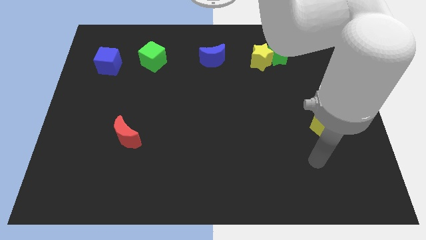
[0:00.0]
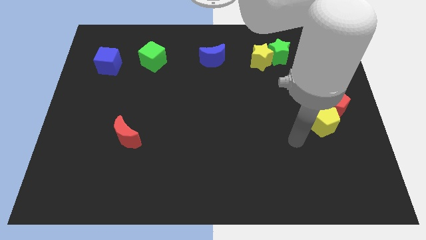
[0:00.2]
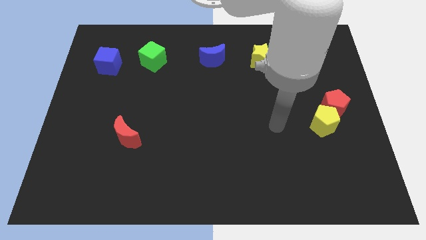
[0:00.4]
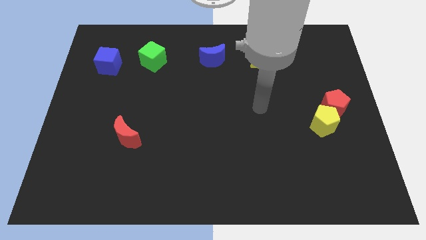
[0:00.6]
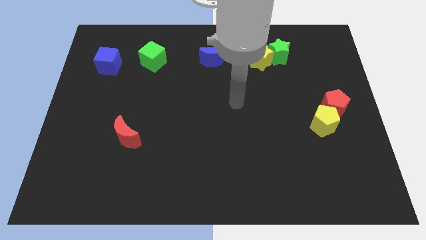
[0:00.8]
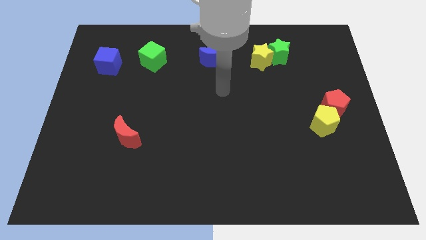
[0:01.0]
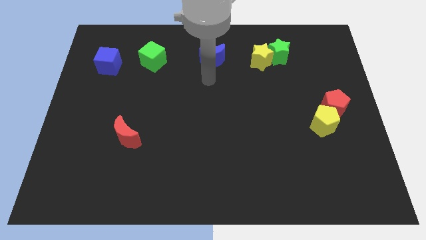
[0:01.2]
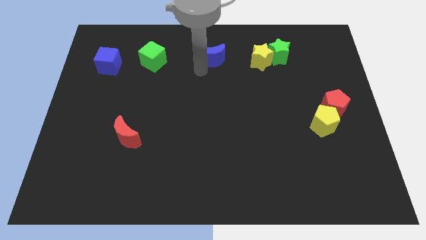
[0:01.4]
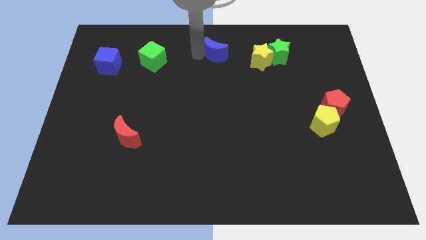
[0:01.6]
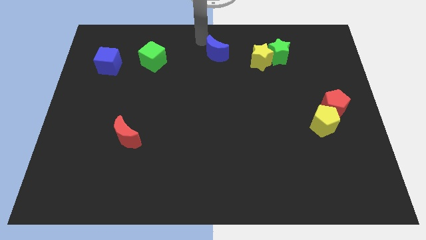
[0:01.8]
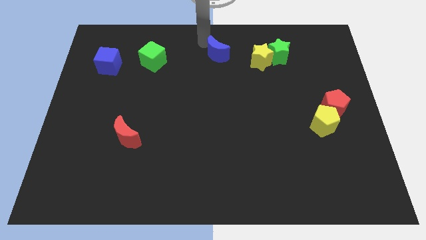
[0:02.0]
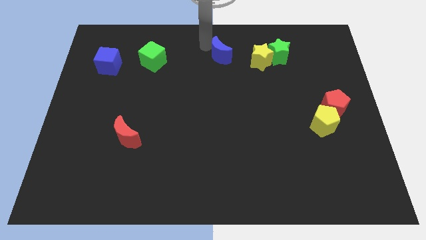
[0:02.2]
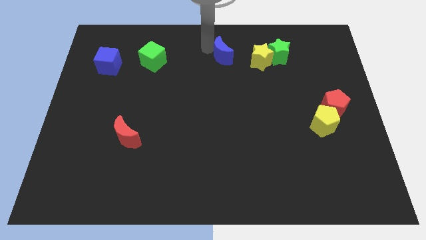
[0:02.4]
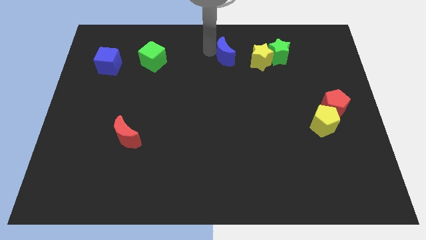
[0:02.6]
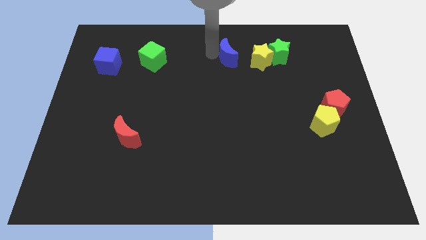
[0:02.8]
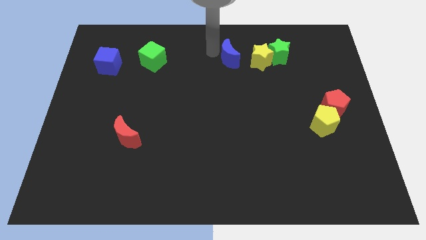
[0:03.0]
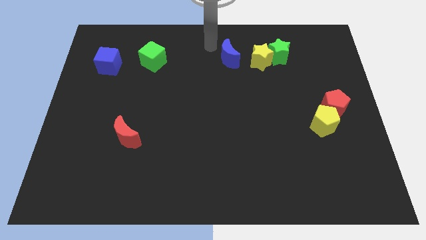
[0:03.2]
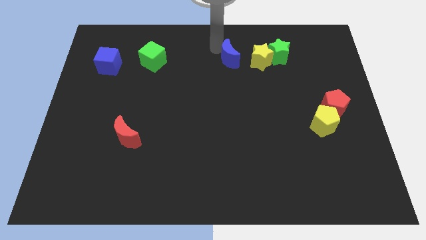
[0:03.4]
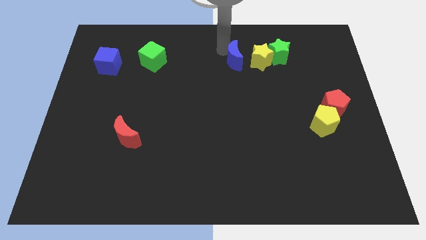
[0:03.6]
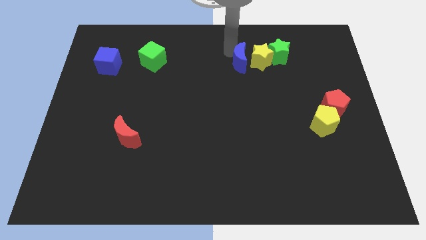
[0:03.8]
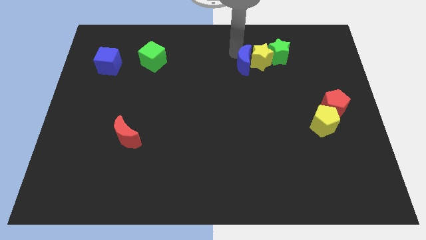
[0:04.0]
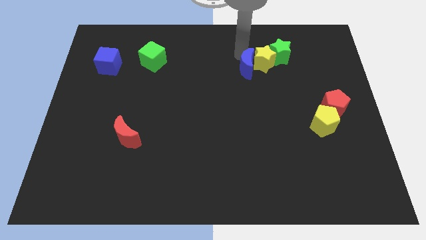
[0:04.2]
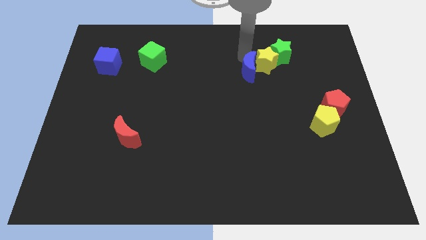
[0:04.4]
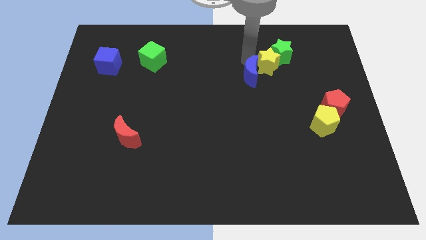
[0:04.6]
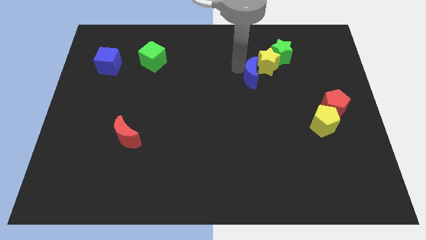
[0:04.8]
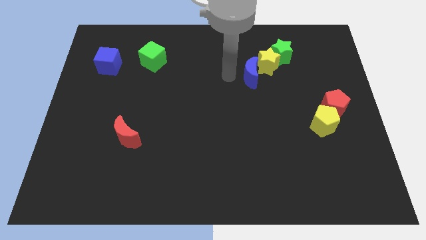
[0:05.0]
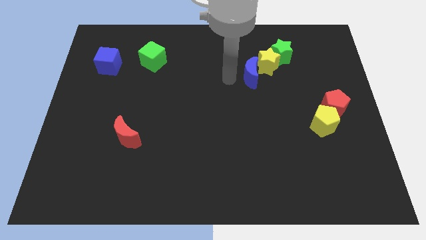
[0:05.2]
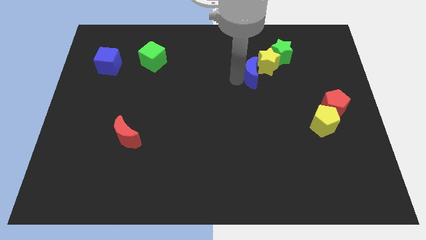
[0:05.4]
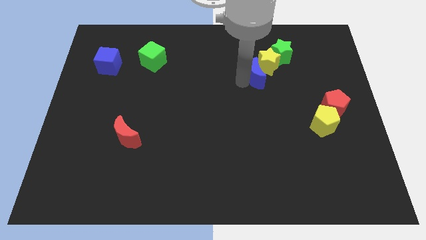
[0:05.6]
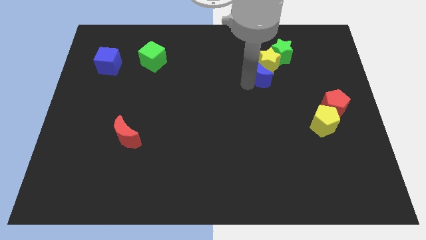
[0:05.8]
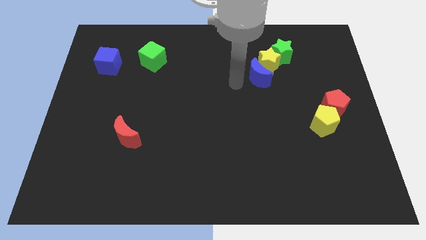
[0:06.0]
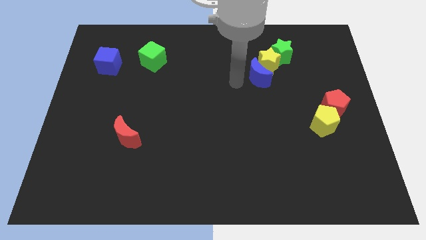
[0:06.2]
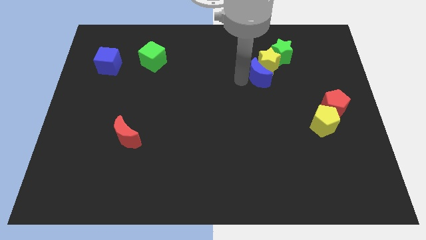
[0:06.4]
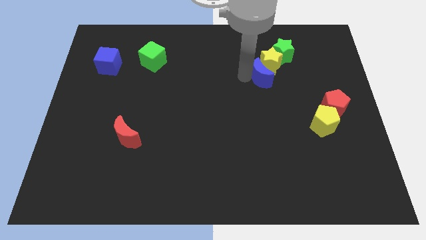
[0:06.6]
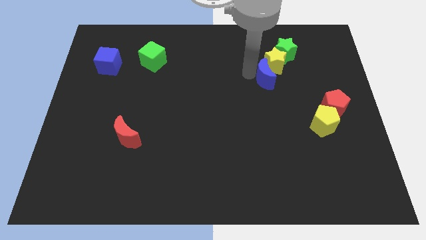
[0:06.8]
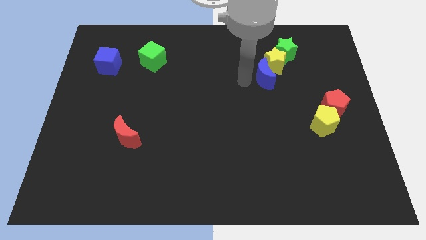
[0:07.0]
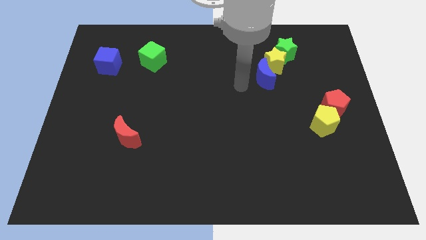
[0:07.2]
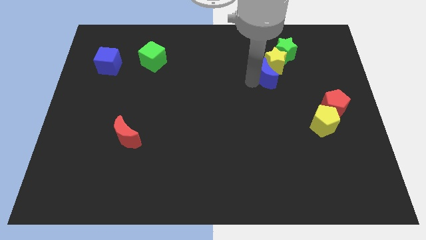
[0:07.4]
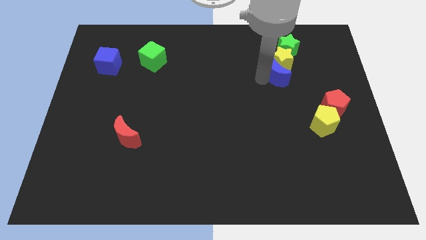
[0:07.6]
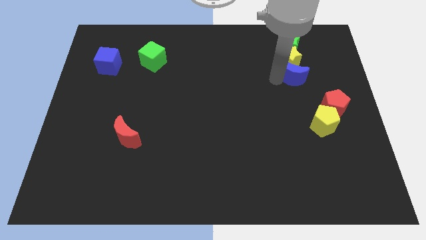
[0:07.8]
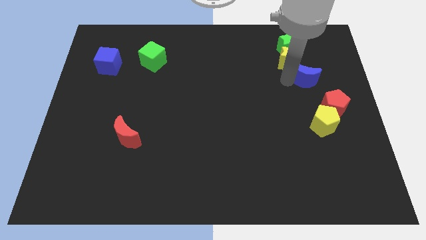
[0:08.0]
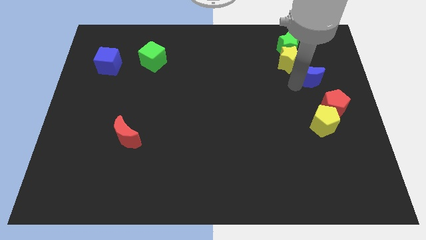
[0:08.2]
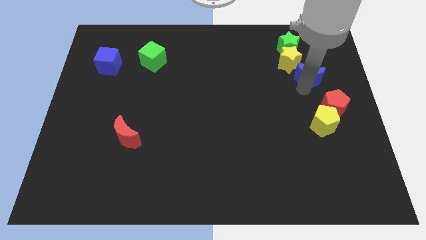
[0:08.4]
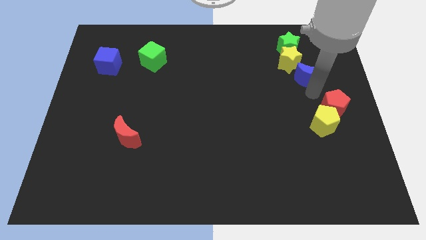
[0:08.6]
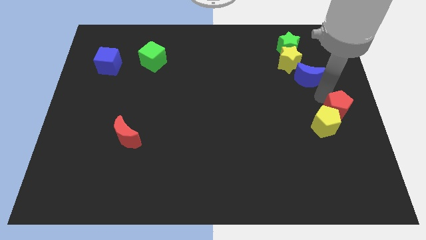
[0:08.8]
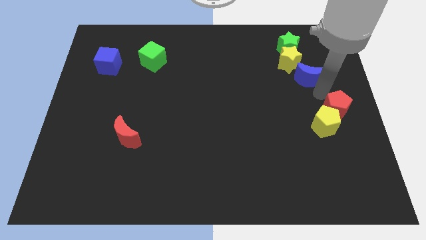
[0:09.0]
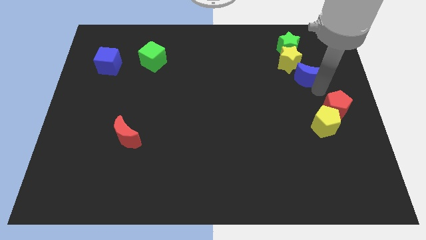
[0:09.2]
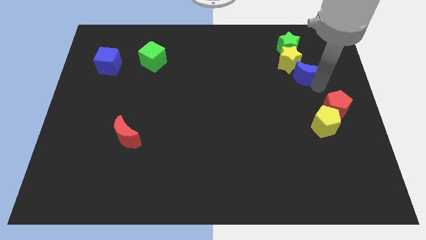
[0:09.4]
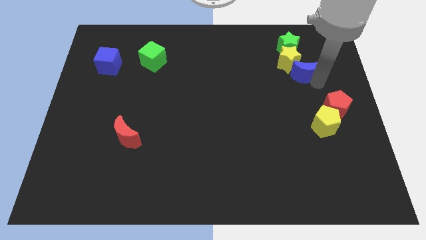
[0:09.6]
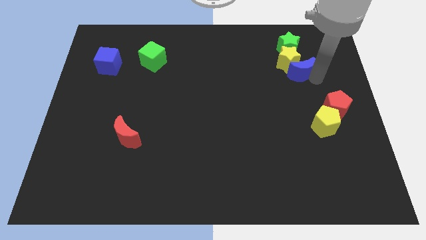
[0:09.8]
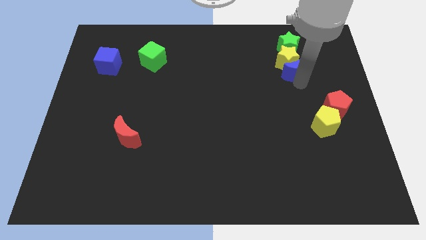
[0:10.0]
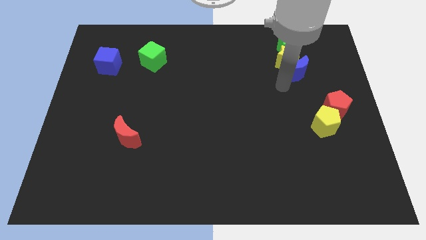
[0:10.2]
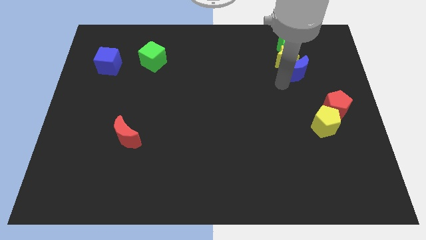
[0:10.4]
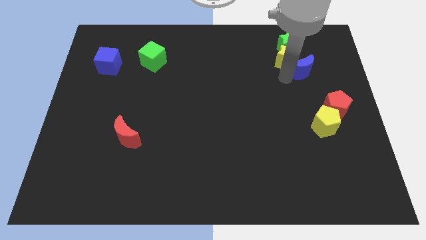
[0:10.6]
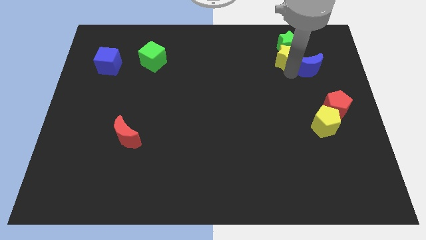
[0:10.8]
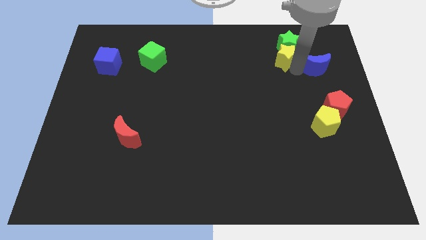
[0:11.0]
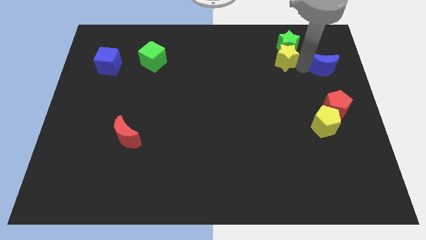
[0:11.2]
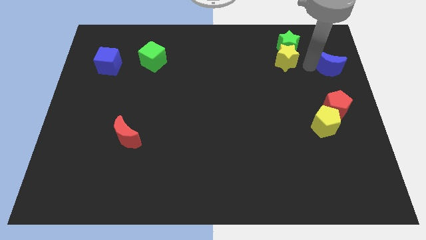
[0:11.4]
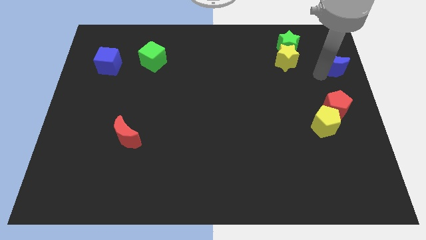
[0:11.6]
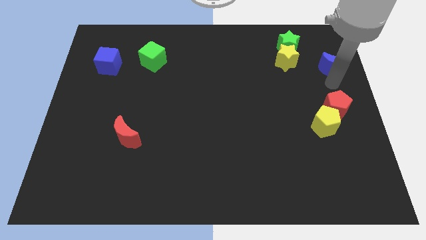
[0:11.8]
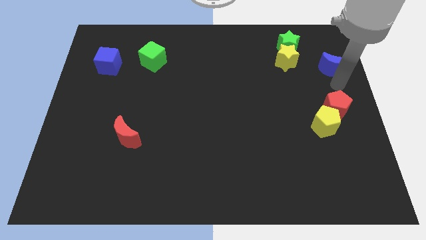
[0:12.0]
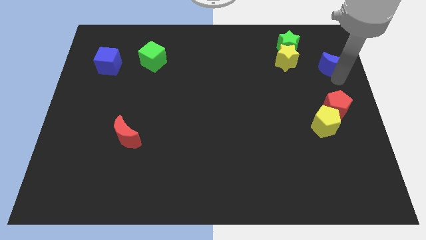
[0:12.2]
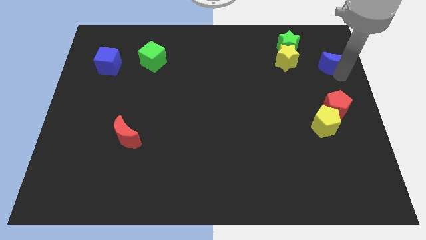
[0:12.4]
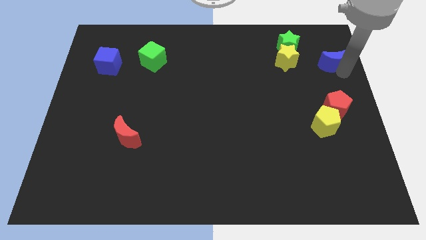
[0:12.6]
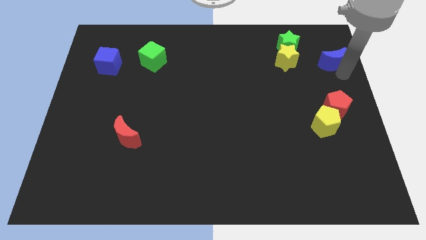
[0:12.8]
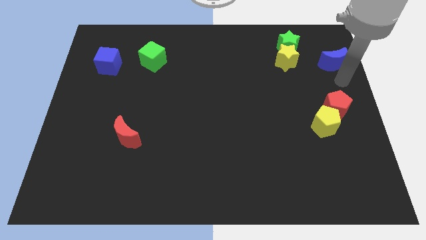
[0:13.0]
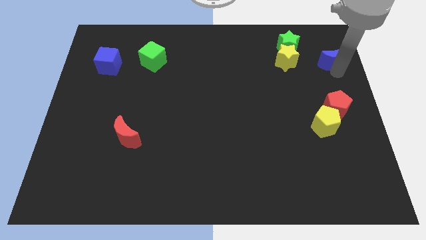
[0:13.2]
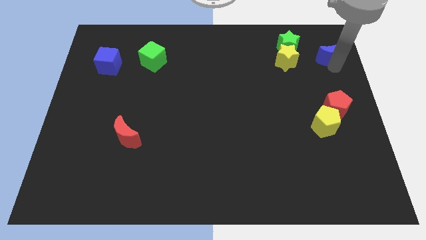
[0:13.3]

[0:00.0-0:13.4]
push the blue moon to the right side of the green star
